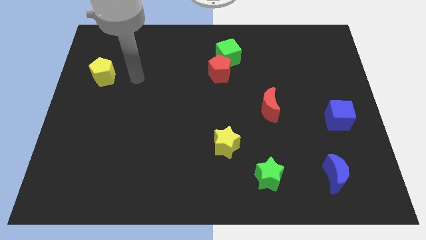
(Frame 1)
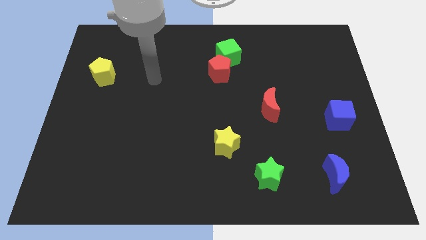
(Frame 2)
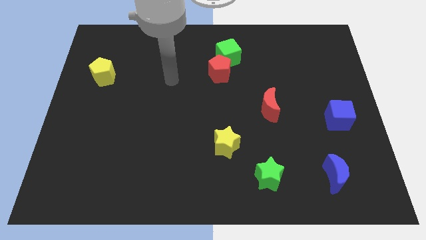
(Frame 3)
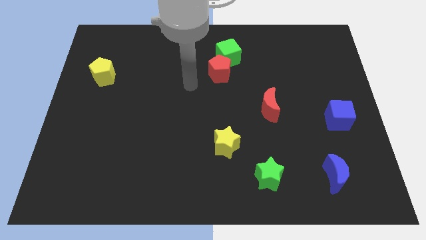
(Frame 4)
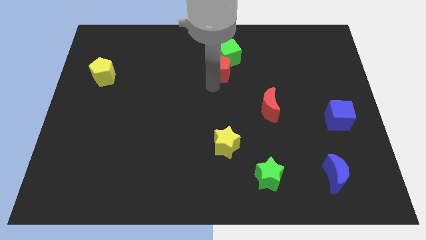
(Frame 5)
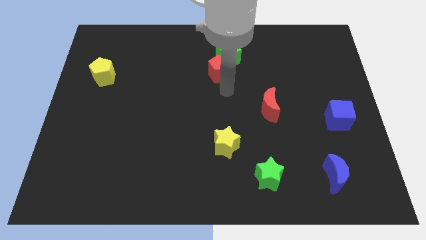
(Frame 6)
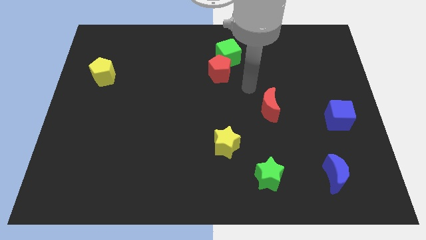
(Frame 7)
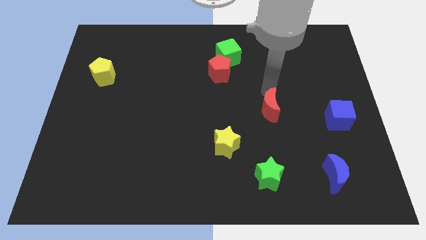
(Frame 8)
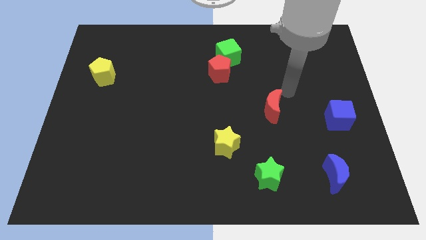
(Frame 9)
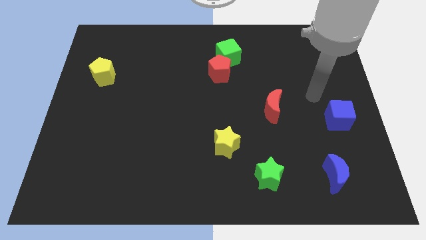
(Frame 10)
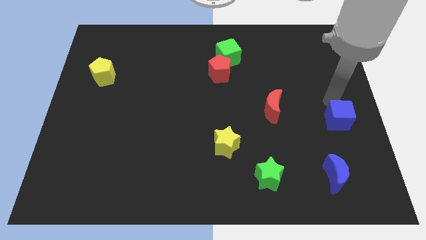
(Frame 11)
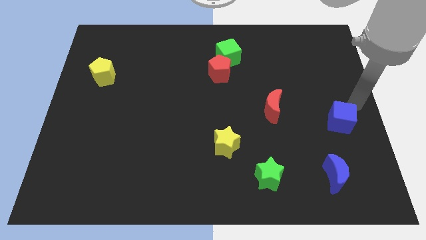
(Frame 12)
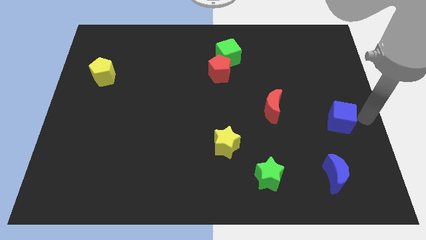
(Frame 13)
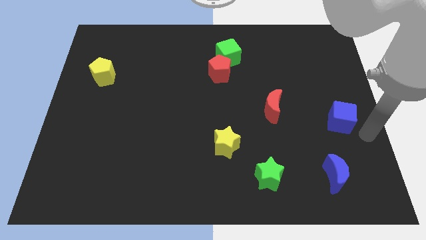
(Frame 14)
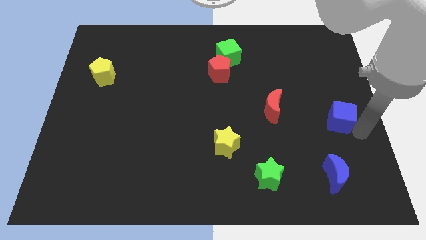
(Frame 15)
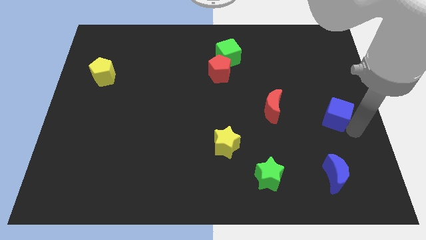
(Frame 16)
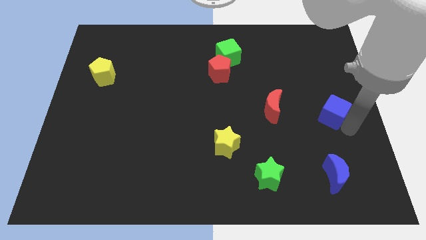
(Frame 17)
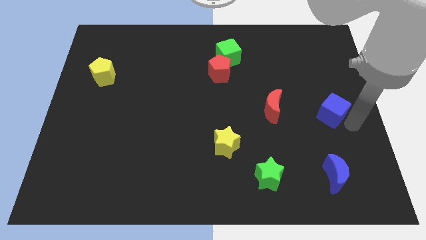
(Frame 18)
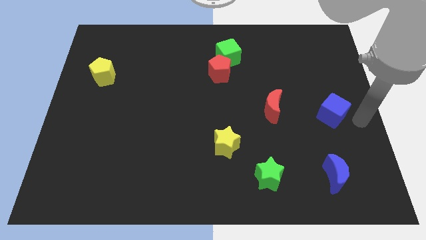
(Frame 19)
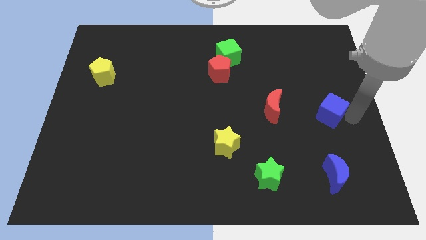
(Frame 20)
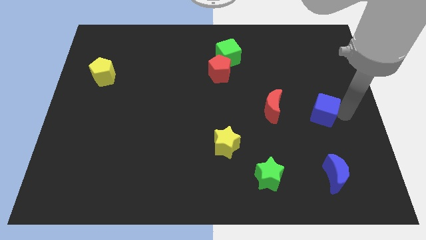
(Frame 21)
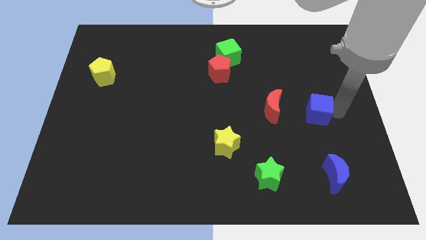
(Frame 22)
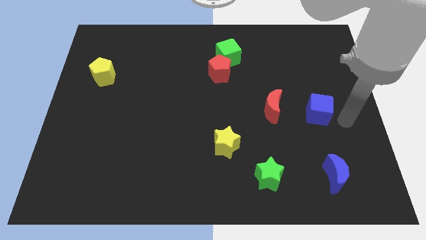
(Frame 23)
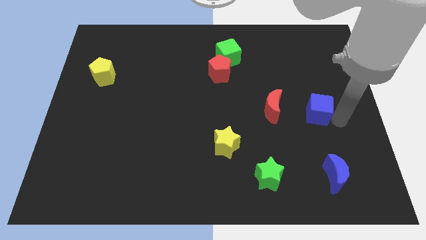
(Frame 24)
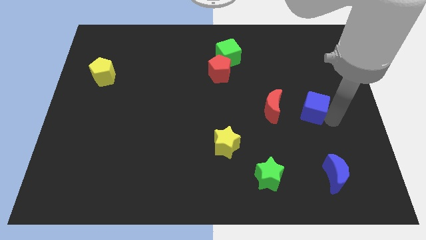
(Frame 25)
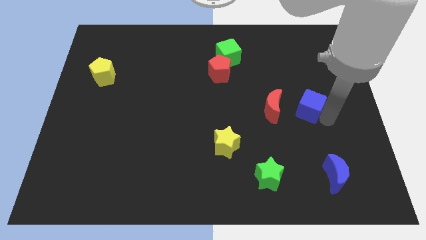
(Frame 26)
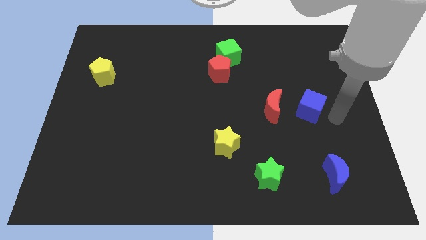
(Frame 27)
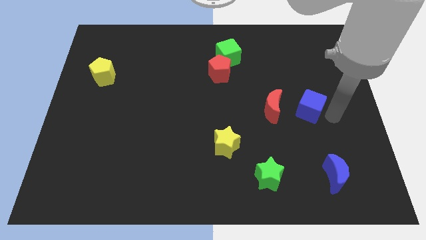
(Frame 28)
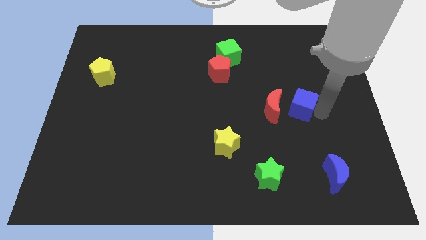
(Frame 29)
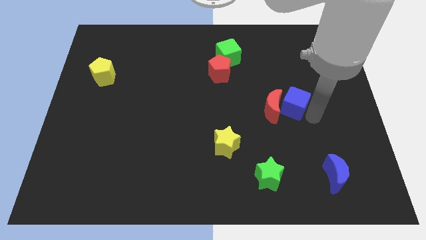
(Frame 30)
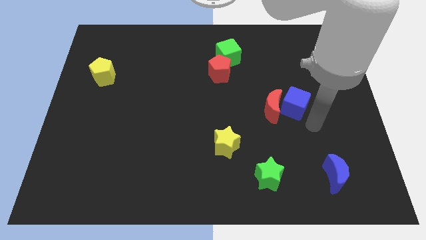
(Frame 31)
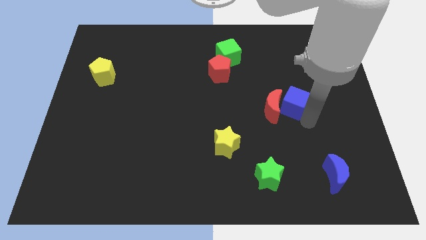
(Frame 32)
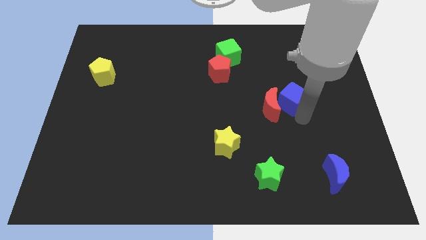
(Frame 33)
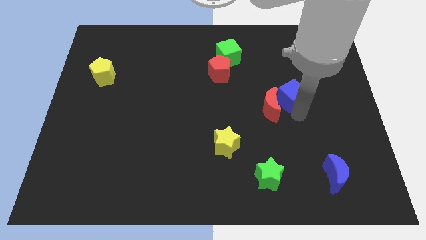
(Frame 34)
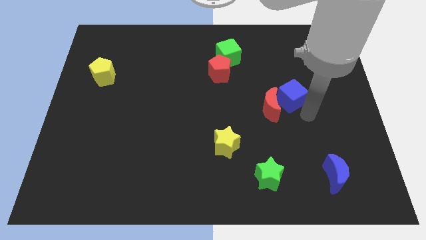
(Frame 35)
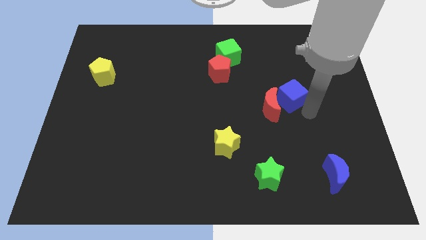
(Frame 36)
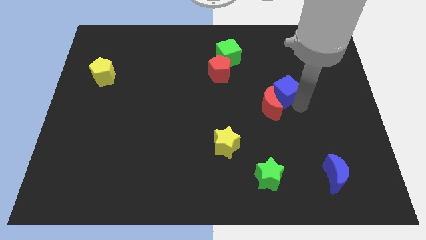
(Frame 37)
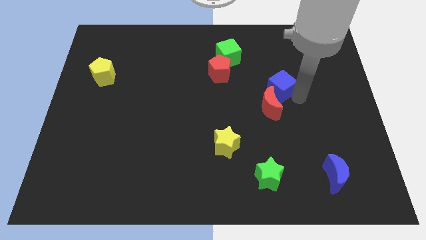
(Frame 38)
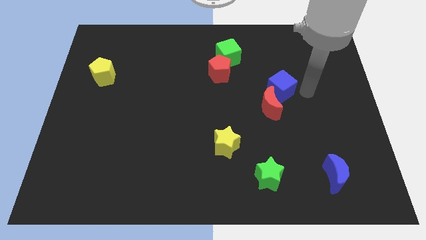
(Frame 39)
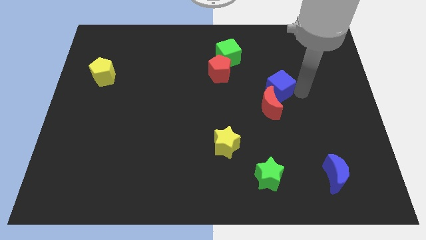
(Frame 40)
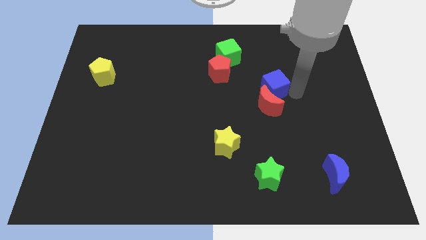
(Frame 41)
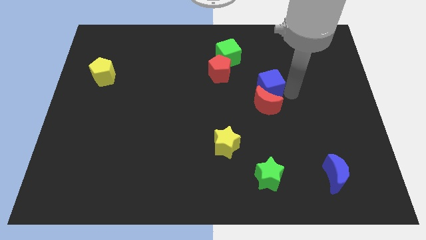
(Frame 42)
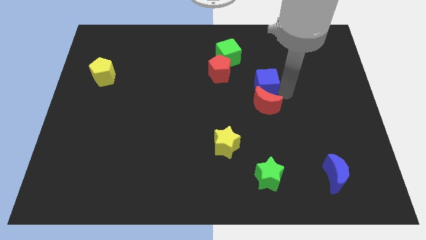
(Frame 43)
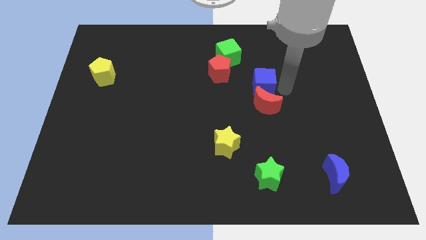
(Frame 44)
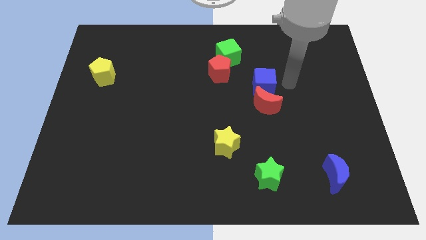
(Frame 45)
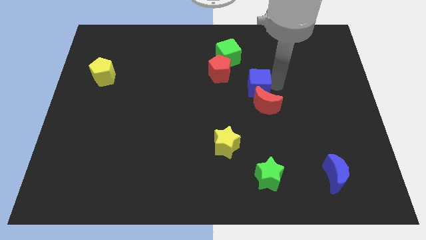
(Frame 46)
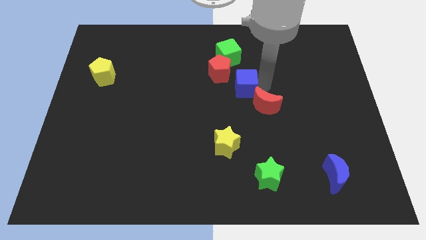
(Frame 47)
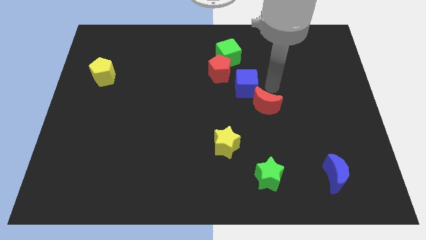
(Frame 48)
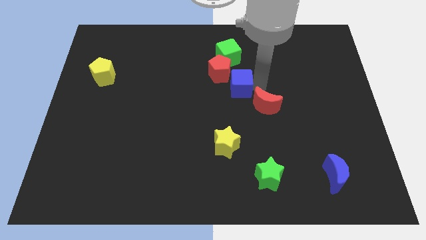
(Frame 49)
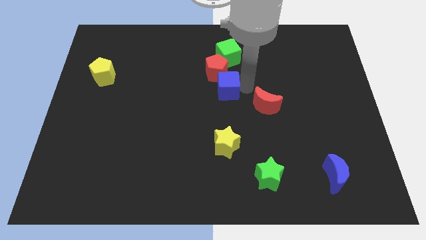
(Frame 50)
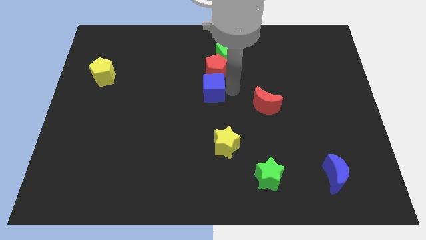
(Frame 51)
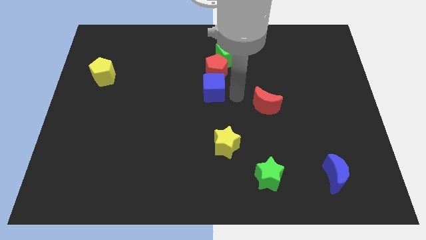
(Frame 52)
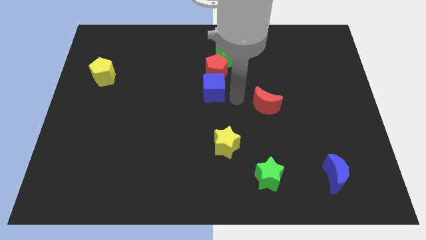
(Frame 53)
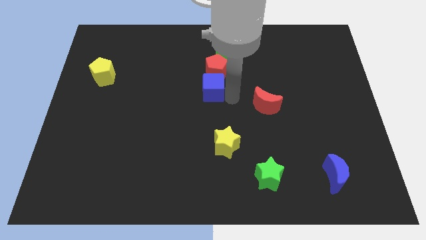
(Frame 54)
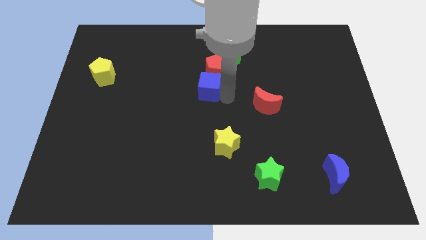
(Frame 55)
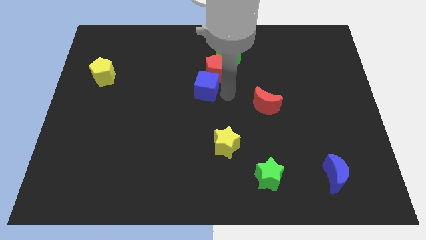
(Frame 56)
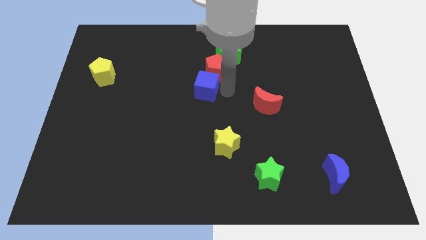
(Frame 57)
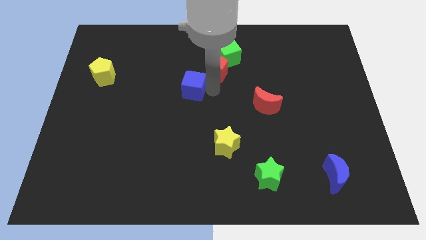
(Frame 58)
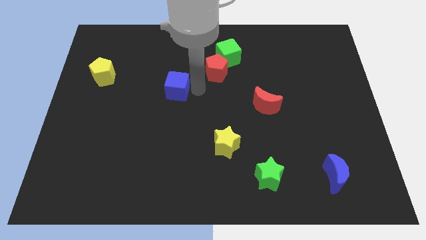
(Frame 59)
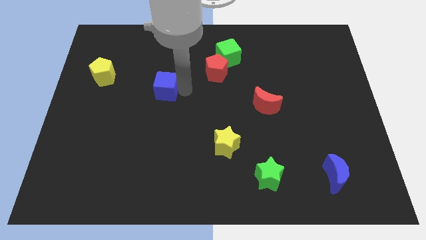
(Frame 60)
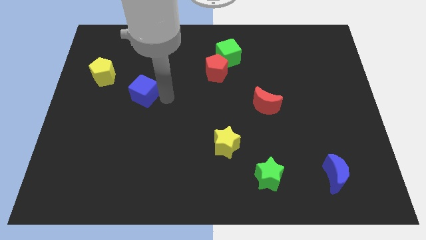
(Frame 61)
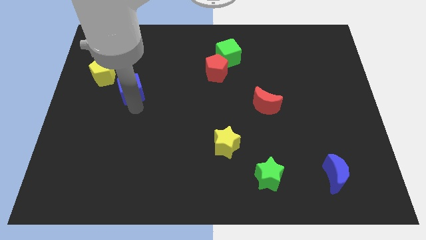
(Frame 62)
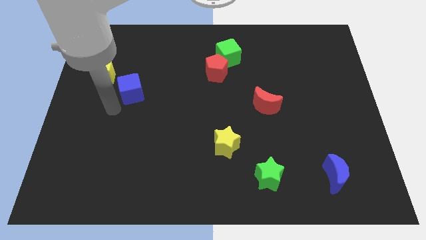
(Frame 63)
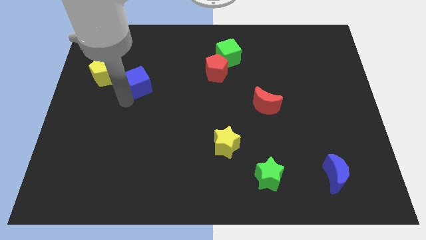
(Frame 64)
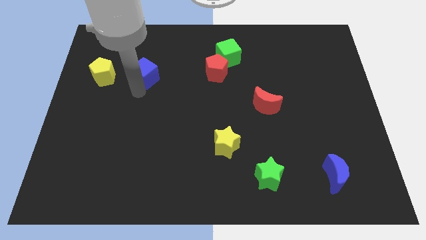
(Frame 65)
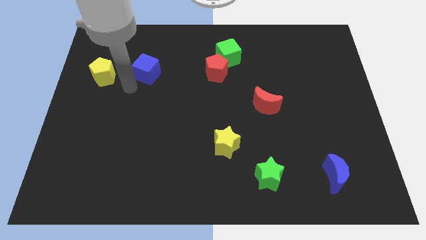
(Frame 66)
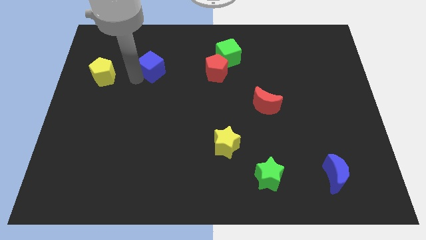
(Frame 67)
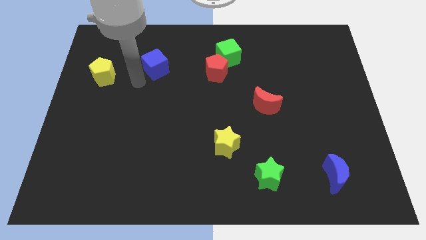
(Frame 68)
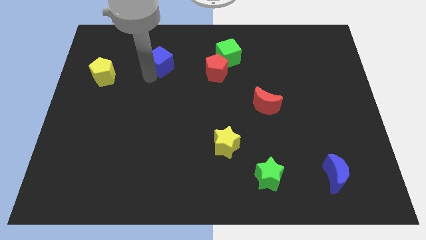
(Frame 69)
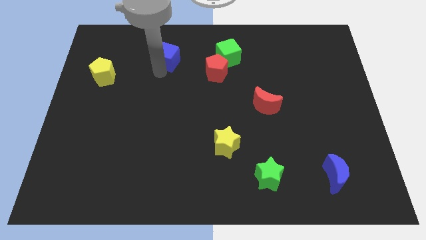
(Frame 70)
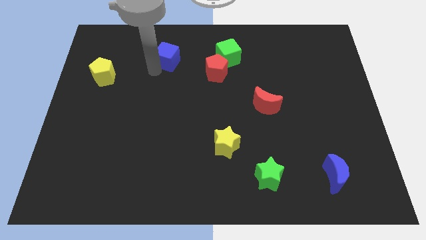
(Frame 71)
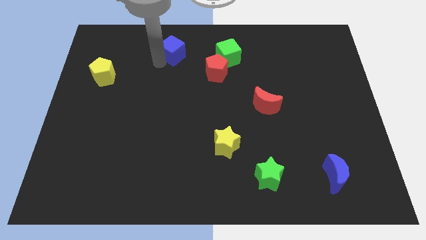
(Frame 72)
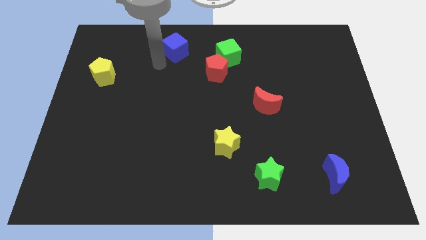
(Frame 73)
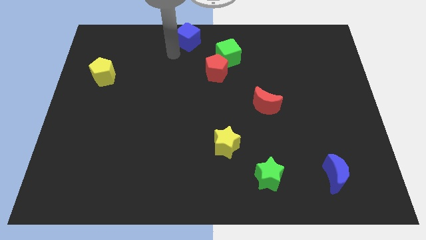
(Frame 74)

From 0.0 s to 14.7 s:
slide the blue cube to the top side
